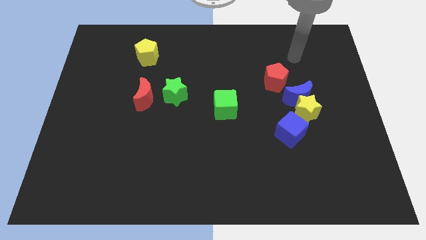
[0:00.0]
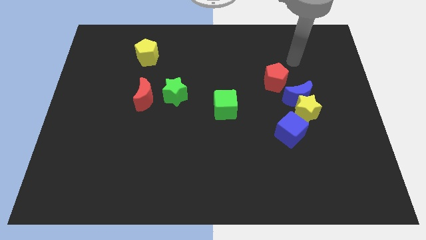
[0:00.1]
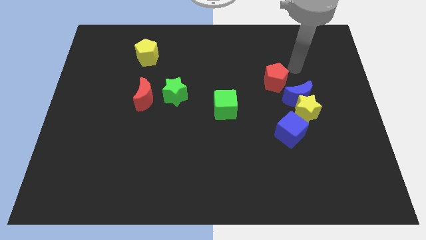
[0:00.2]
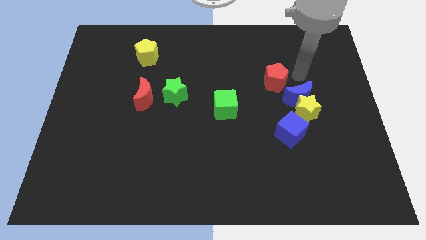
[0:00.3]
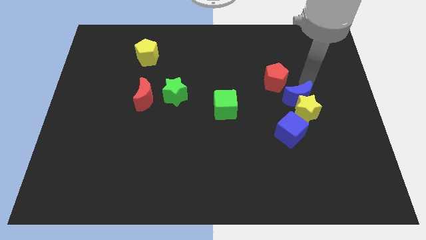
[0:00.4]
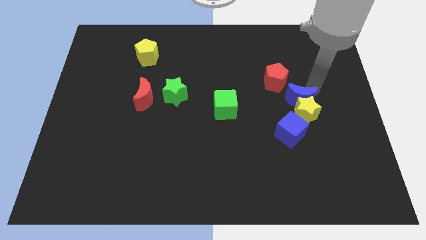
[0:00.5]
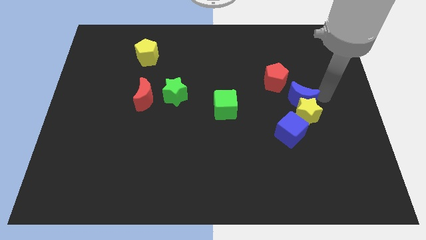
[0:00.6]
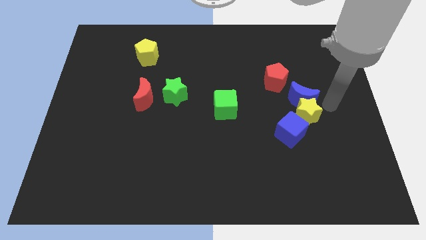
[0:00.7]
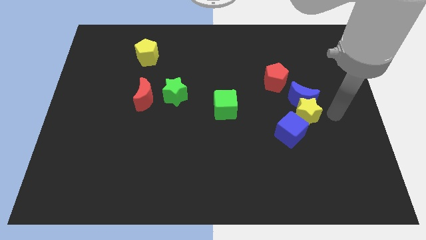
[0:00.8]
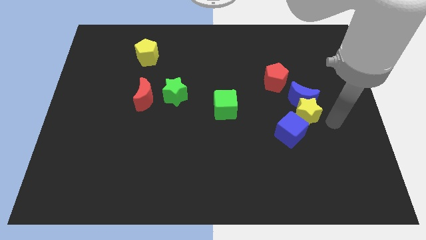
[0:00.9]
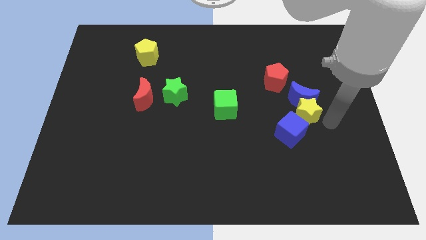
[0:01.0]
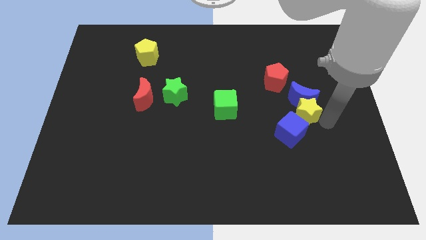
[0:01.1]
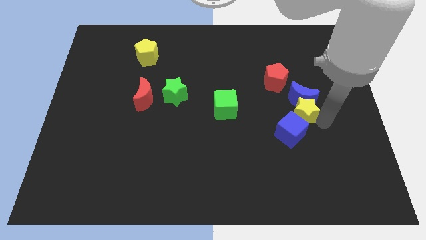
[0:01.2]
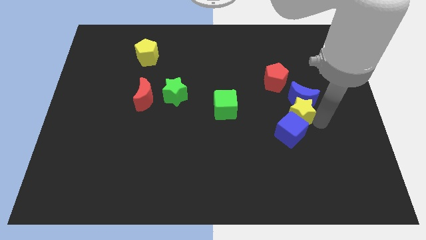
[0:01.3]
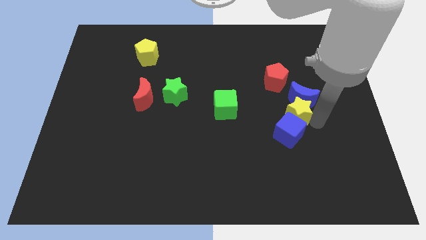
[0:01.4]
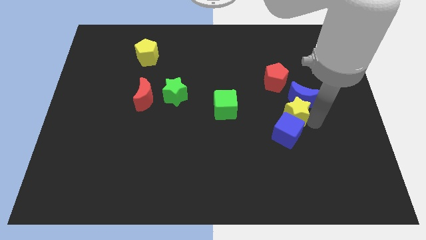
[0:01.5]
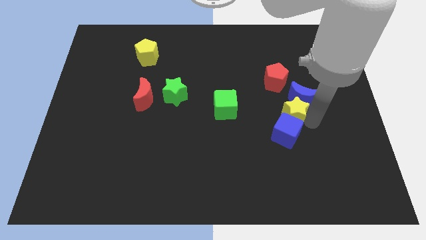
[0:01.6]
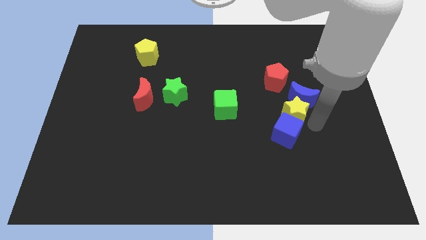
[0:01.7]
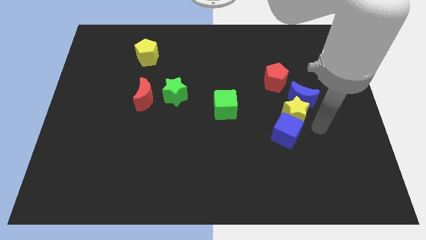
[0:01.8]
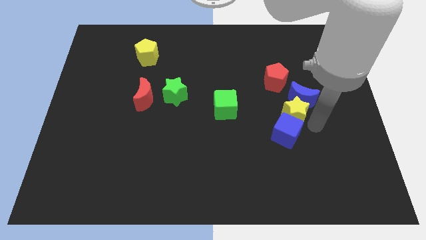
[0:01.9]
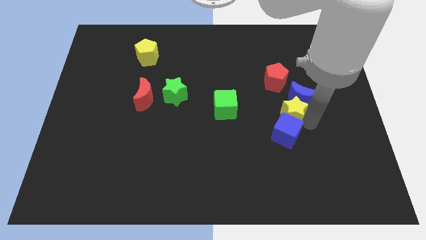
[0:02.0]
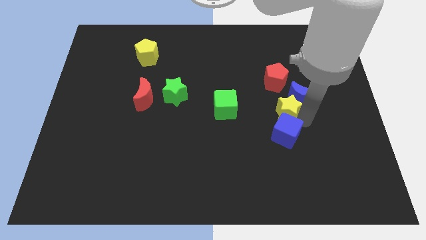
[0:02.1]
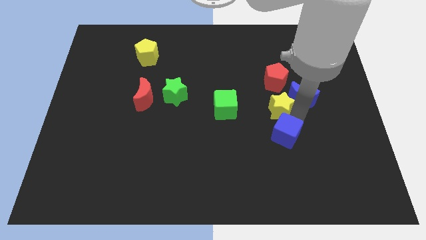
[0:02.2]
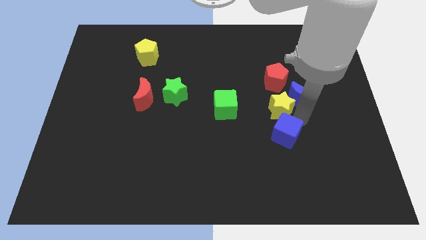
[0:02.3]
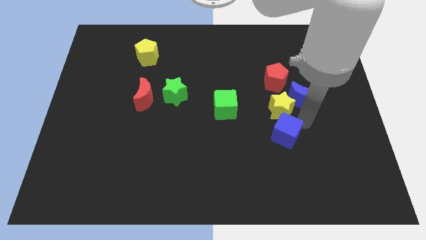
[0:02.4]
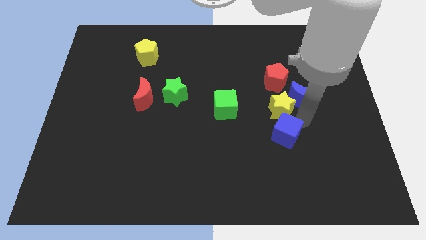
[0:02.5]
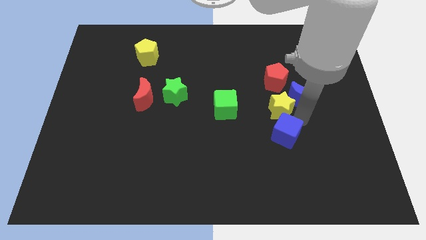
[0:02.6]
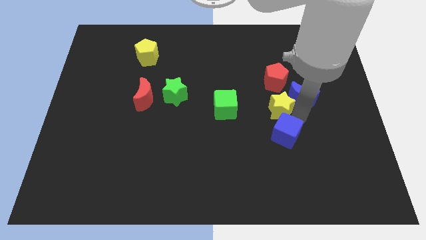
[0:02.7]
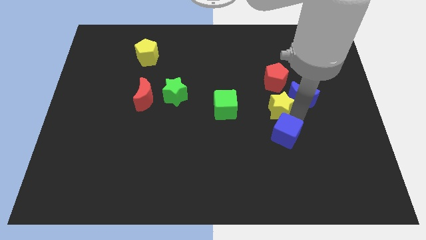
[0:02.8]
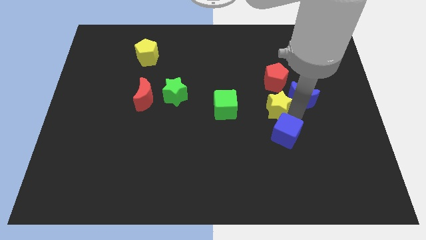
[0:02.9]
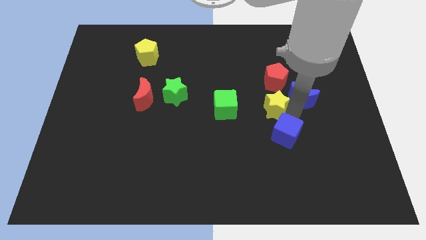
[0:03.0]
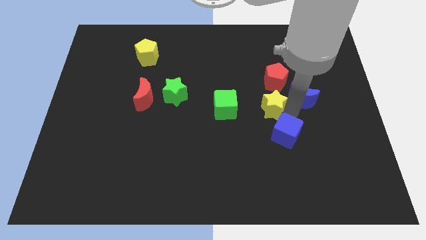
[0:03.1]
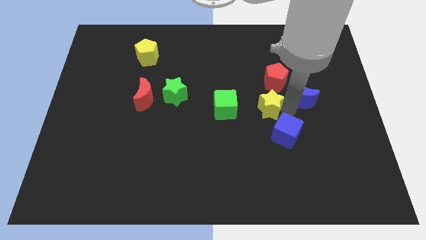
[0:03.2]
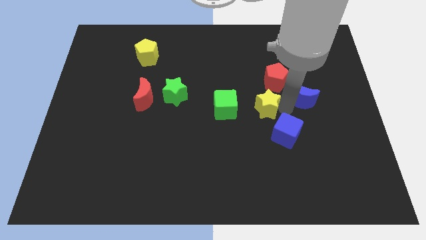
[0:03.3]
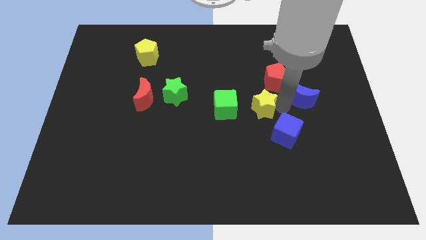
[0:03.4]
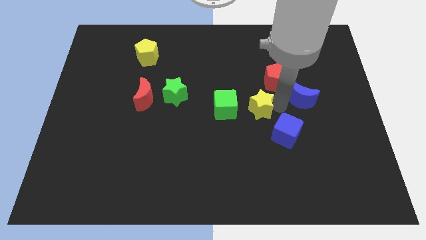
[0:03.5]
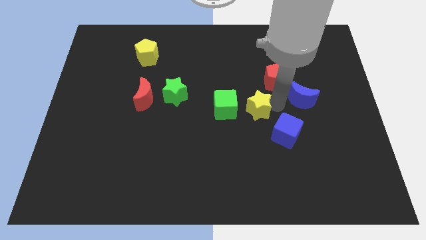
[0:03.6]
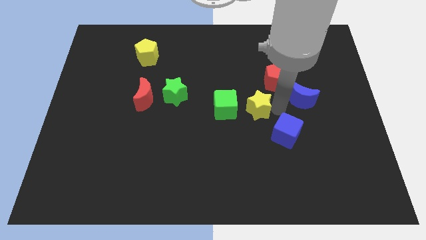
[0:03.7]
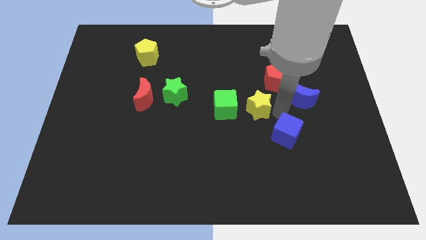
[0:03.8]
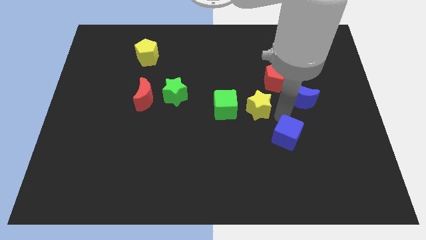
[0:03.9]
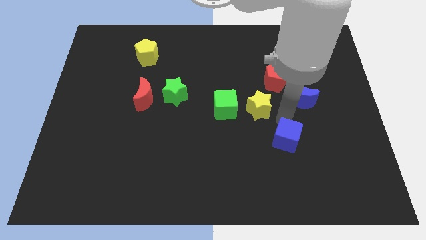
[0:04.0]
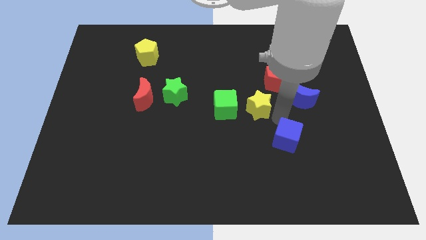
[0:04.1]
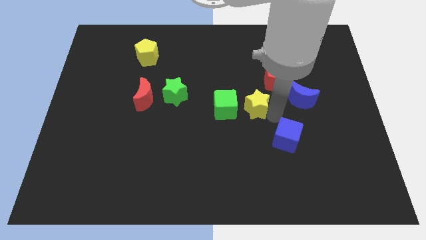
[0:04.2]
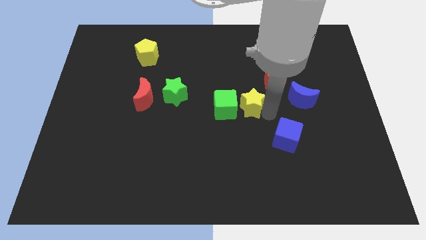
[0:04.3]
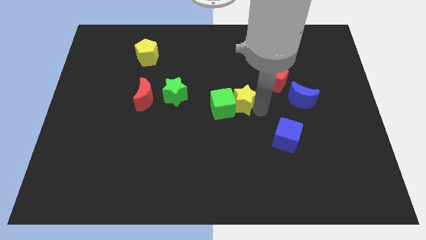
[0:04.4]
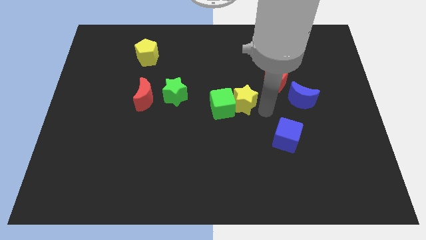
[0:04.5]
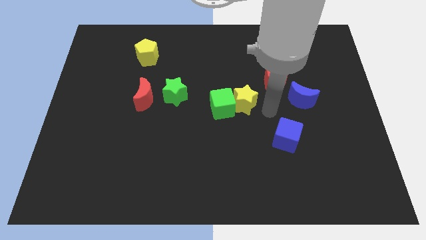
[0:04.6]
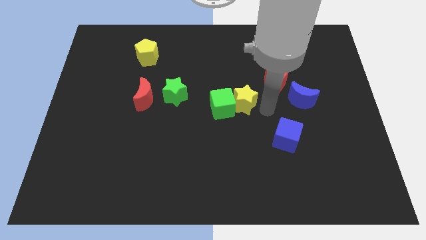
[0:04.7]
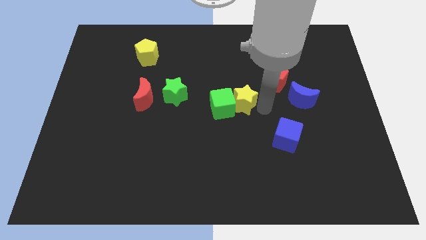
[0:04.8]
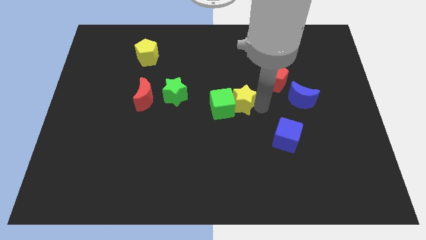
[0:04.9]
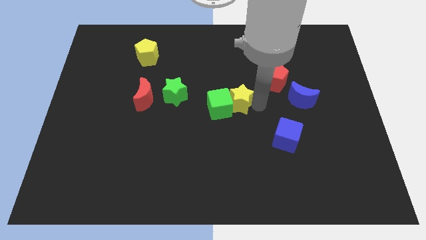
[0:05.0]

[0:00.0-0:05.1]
move the yellow star to the right of the green star

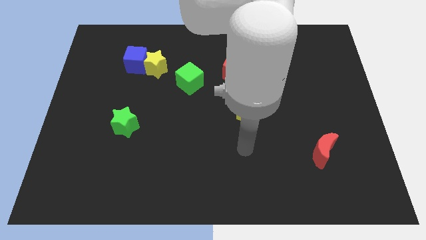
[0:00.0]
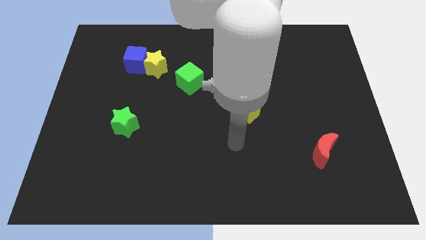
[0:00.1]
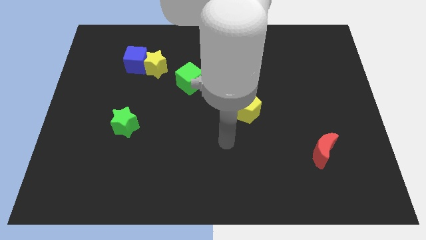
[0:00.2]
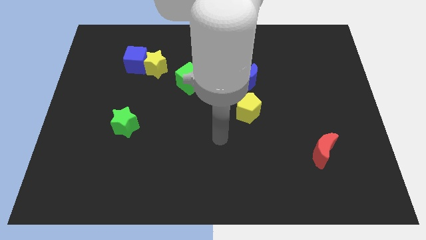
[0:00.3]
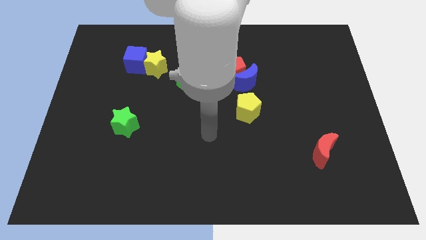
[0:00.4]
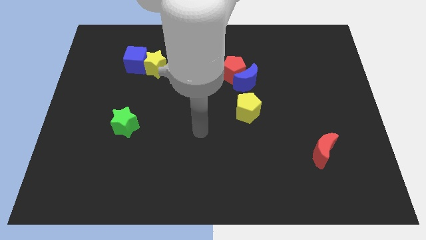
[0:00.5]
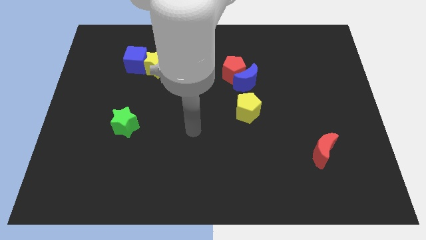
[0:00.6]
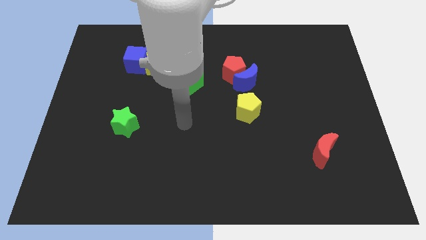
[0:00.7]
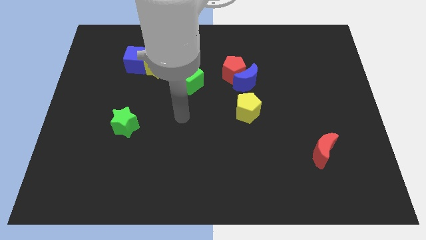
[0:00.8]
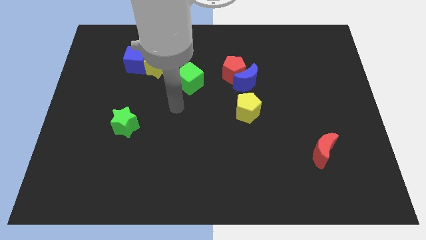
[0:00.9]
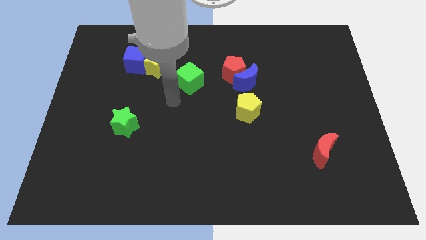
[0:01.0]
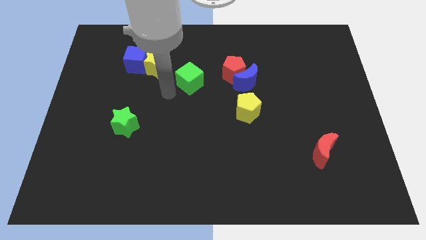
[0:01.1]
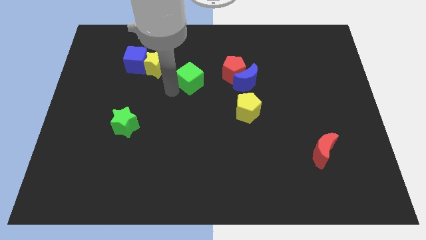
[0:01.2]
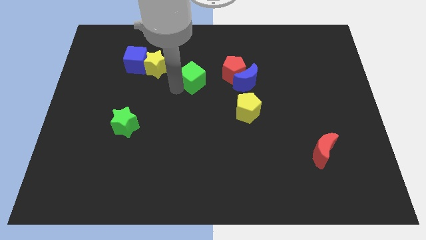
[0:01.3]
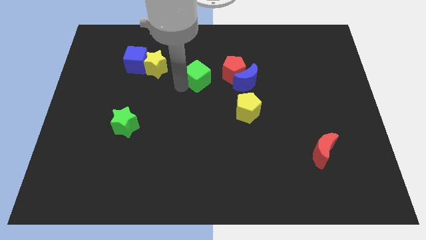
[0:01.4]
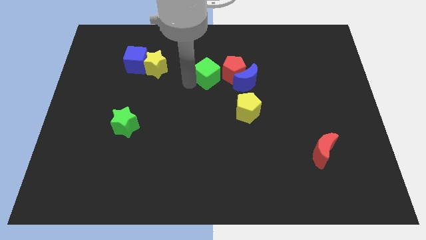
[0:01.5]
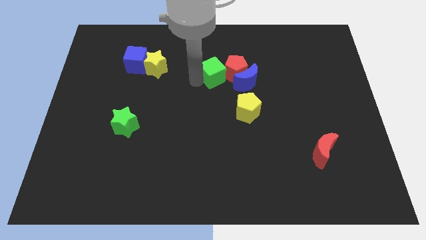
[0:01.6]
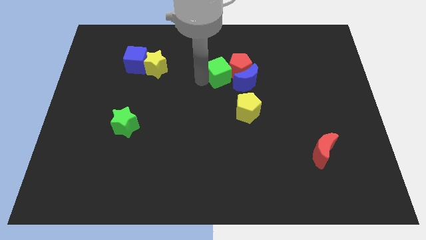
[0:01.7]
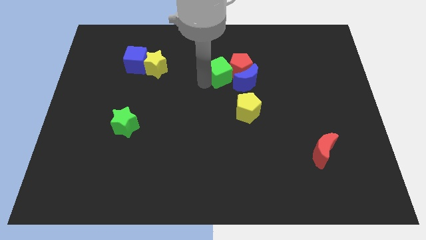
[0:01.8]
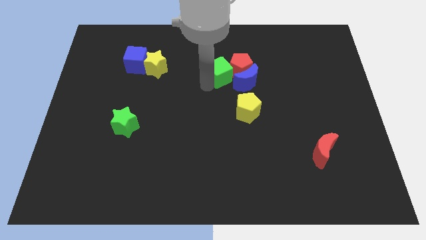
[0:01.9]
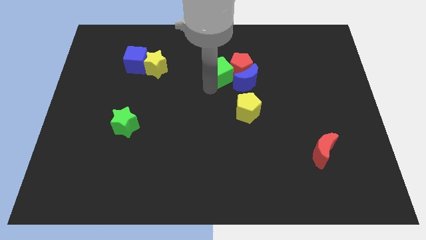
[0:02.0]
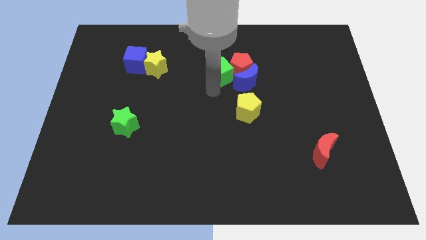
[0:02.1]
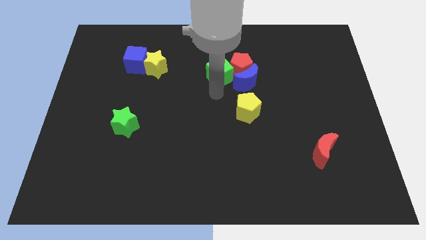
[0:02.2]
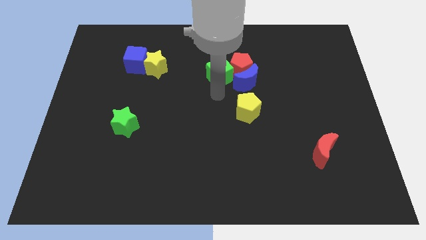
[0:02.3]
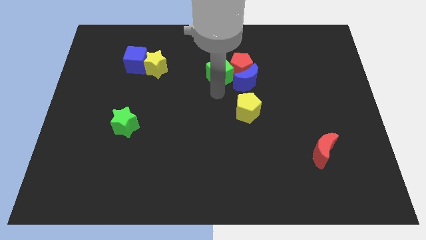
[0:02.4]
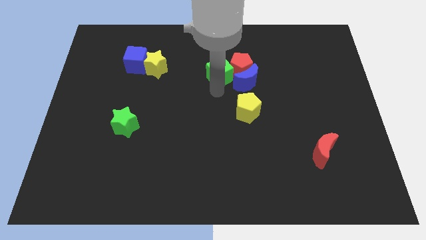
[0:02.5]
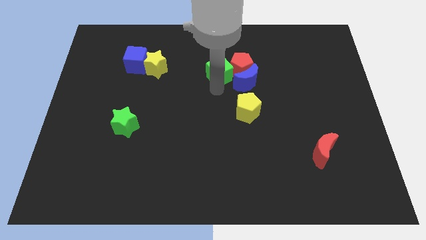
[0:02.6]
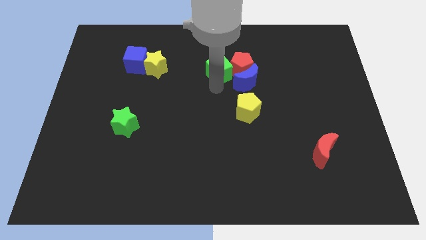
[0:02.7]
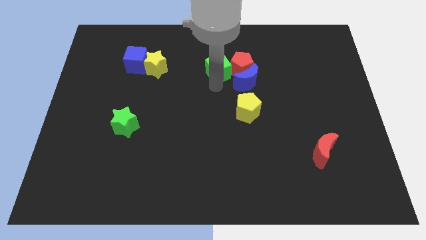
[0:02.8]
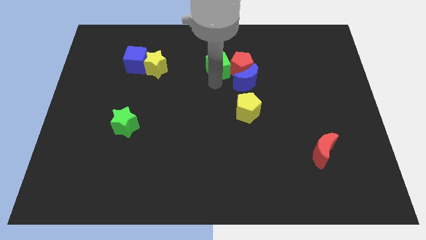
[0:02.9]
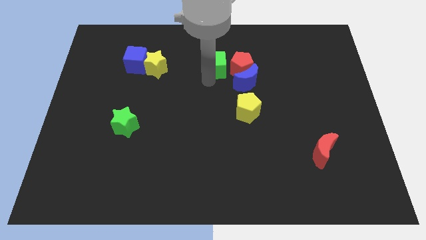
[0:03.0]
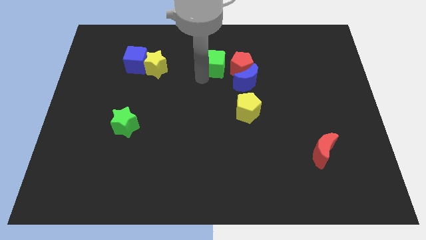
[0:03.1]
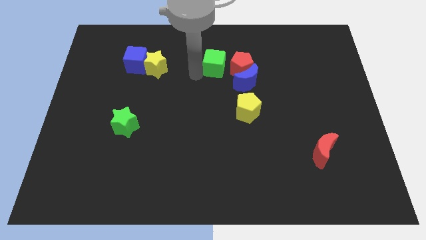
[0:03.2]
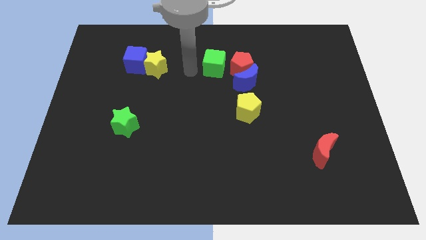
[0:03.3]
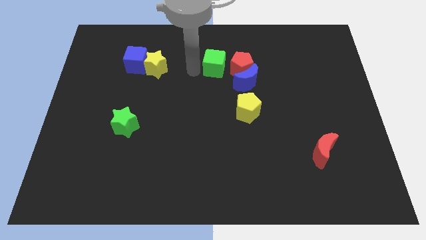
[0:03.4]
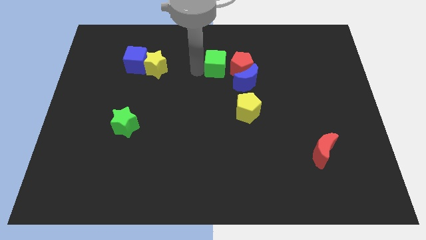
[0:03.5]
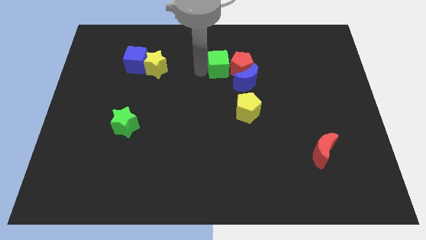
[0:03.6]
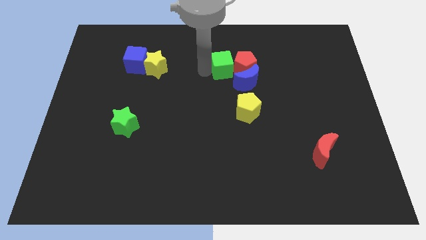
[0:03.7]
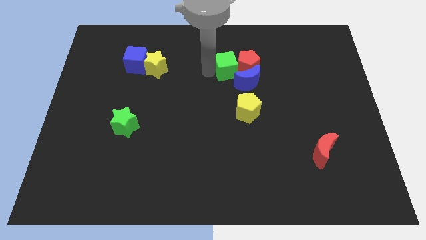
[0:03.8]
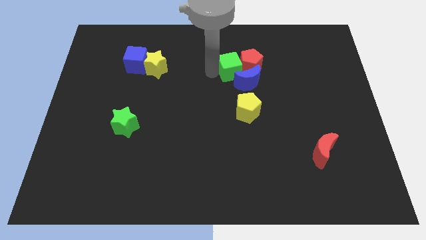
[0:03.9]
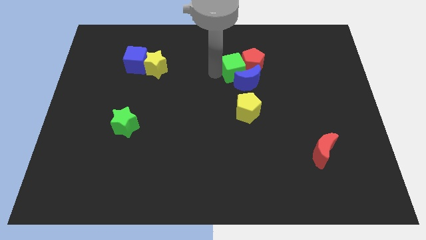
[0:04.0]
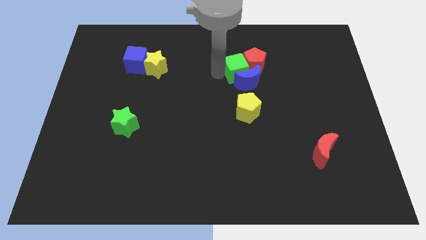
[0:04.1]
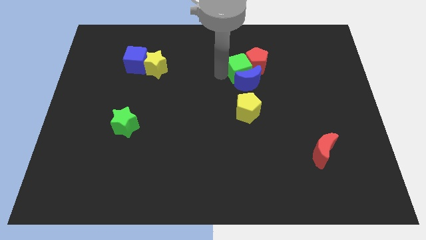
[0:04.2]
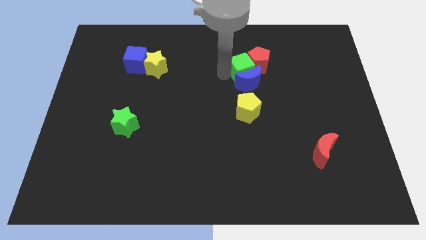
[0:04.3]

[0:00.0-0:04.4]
put the green cube to the top right of the blue moon
